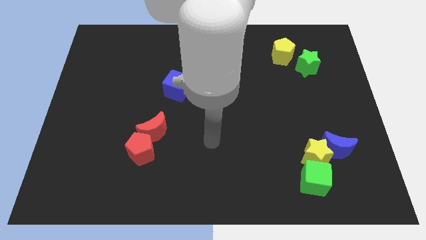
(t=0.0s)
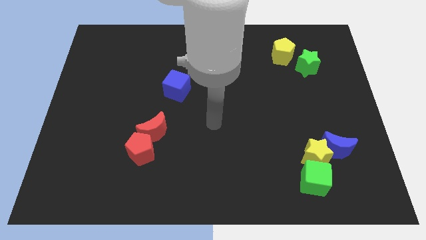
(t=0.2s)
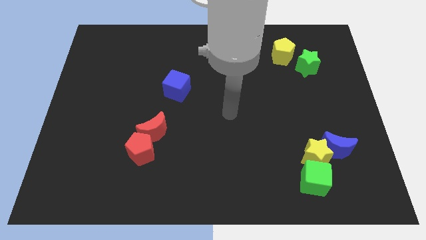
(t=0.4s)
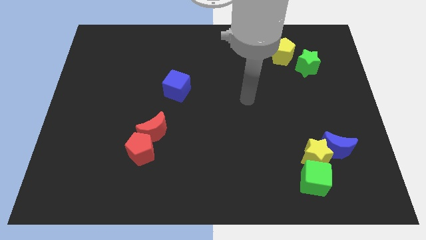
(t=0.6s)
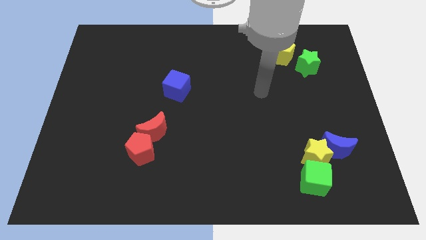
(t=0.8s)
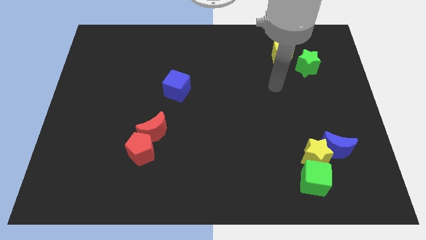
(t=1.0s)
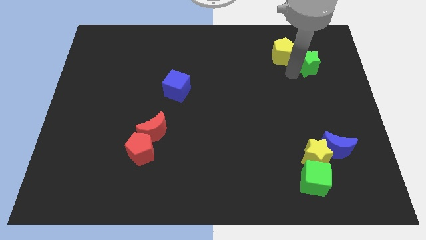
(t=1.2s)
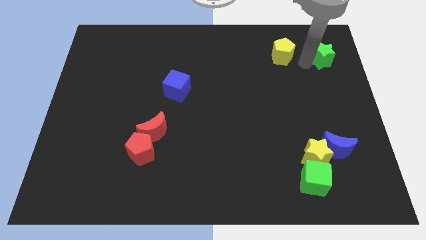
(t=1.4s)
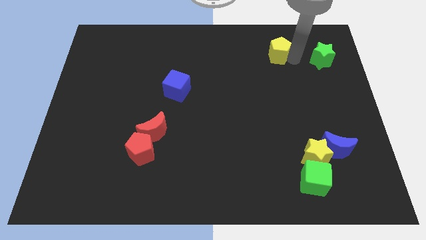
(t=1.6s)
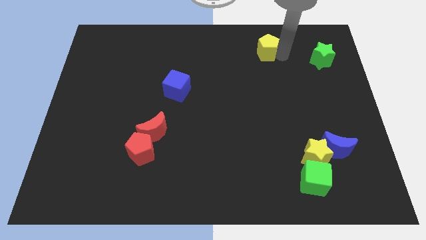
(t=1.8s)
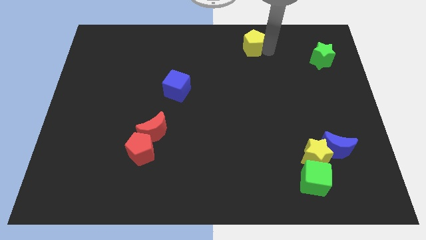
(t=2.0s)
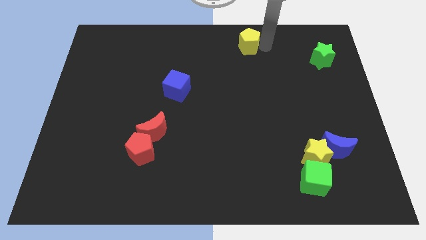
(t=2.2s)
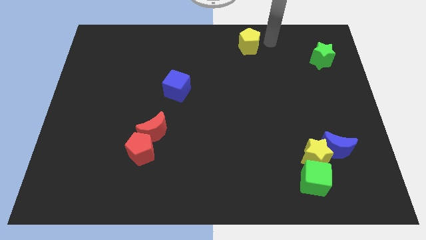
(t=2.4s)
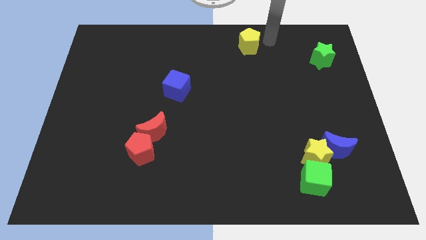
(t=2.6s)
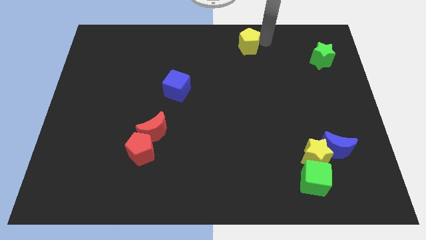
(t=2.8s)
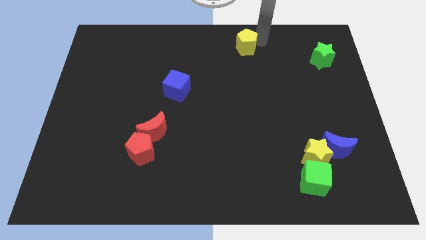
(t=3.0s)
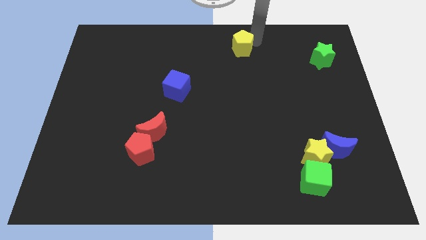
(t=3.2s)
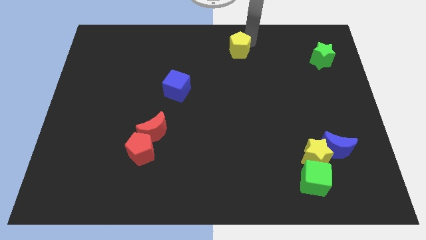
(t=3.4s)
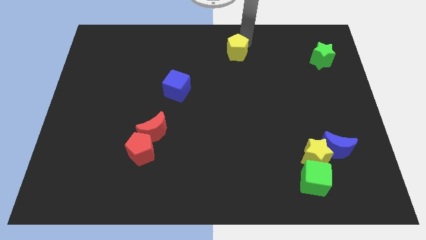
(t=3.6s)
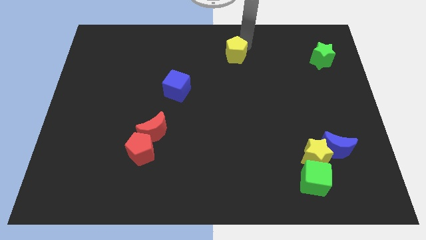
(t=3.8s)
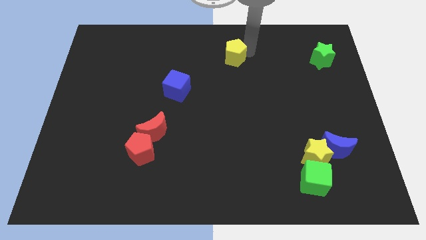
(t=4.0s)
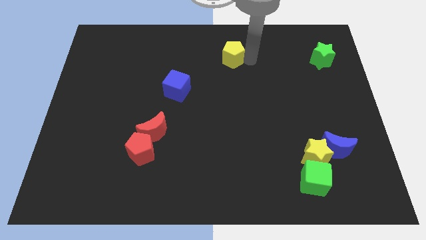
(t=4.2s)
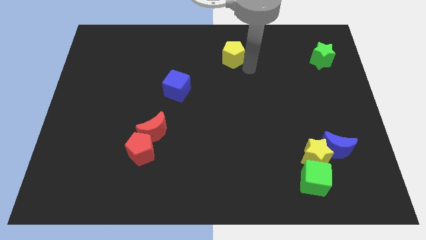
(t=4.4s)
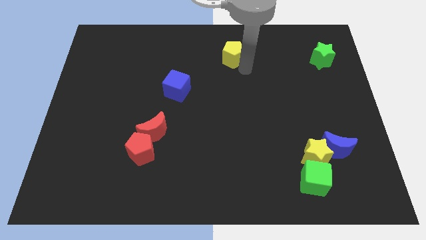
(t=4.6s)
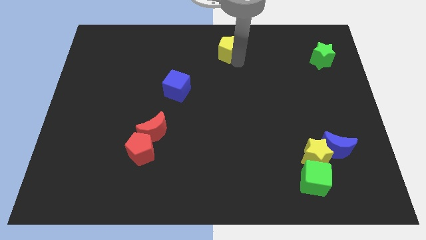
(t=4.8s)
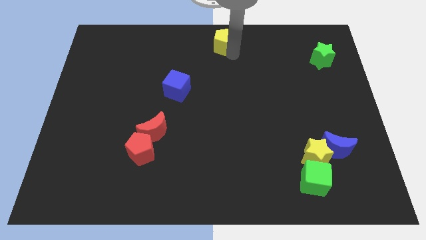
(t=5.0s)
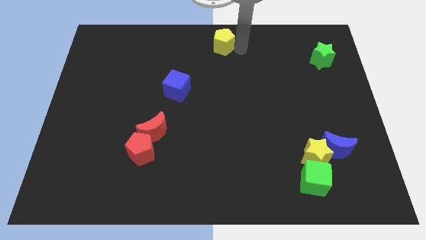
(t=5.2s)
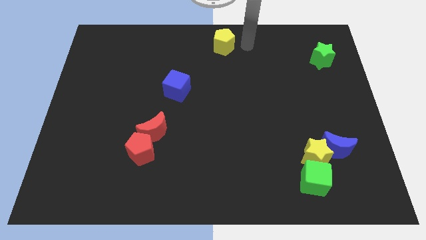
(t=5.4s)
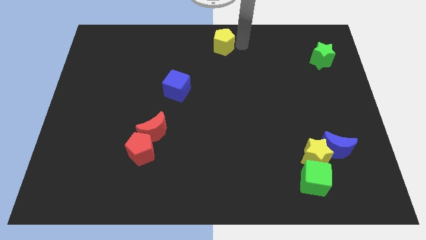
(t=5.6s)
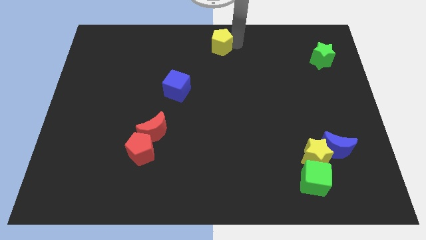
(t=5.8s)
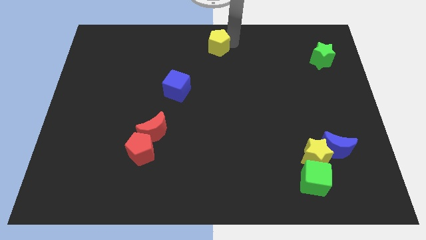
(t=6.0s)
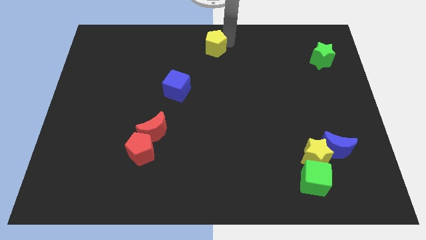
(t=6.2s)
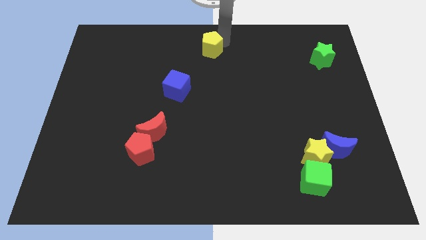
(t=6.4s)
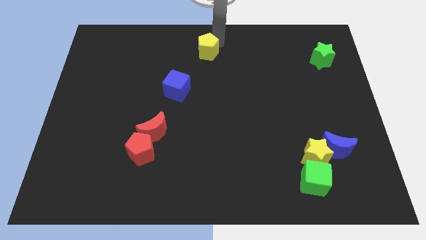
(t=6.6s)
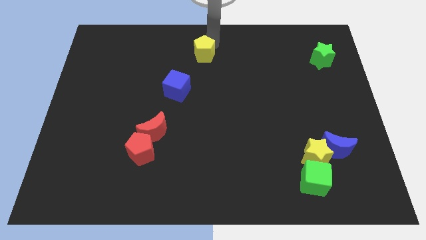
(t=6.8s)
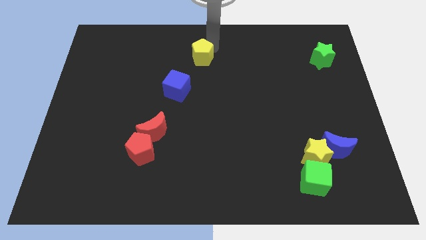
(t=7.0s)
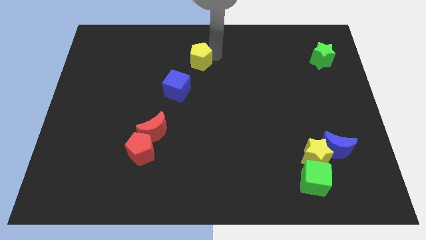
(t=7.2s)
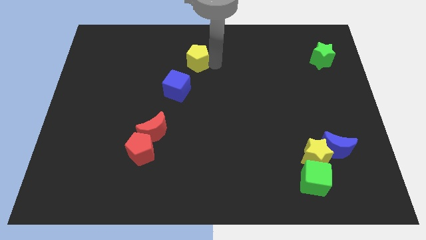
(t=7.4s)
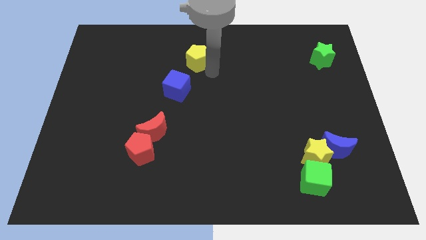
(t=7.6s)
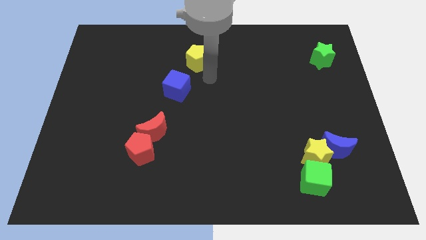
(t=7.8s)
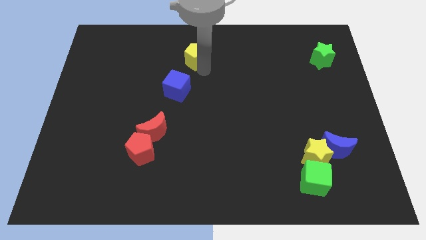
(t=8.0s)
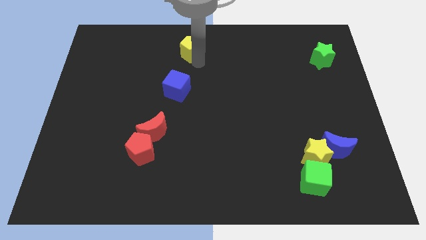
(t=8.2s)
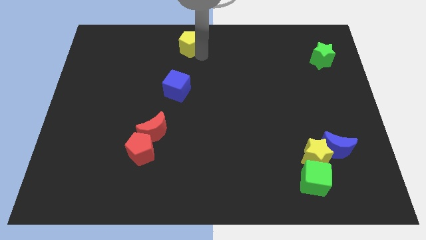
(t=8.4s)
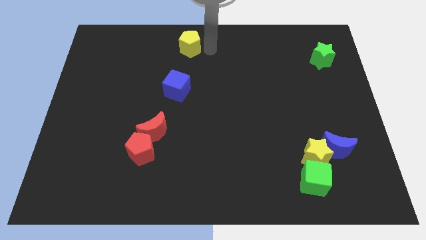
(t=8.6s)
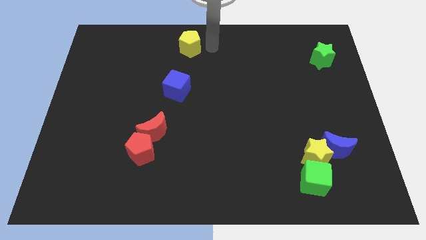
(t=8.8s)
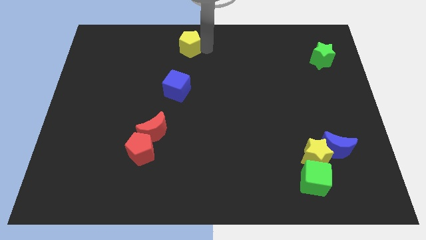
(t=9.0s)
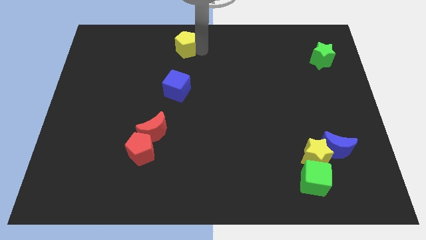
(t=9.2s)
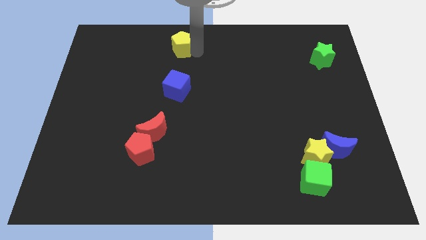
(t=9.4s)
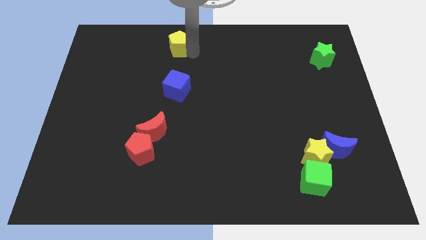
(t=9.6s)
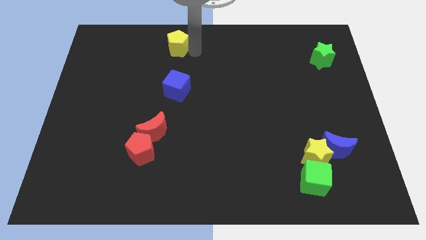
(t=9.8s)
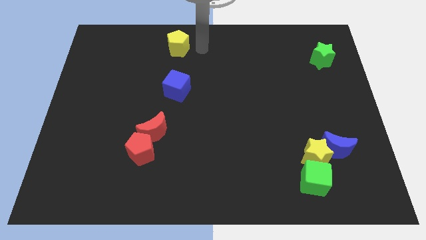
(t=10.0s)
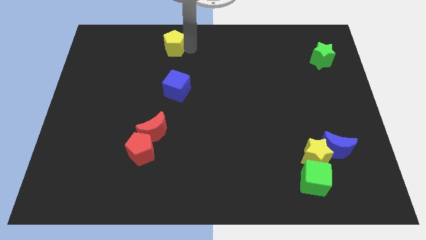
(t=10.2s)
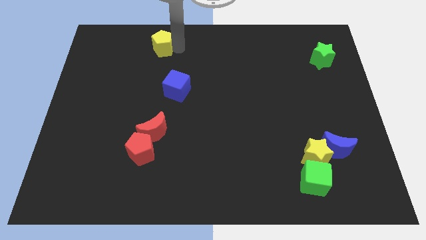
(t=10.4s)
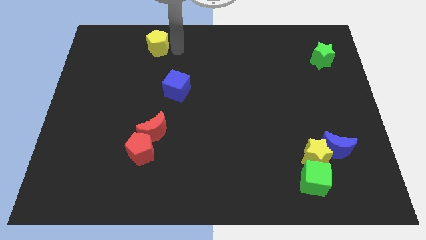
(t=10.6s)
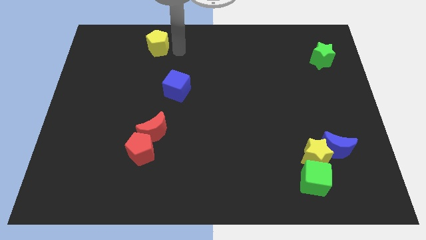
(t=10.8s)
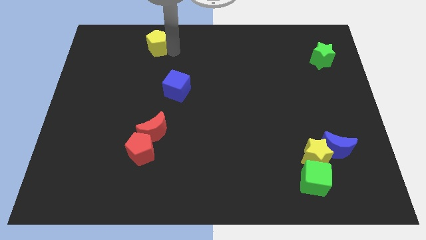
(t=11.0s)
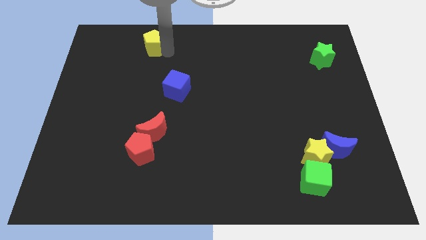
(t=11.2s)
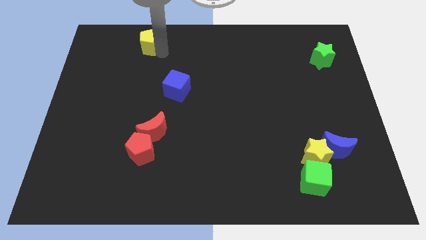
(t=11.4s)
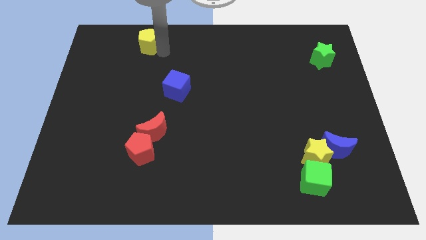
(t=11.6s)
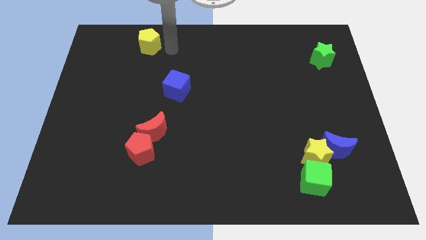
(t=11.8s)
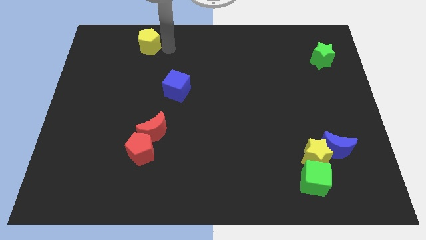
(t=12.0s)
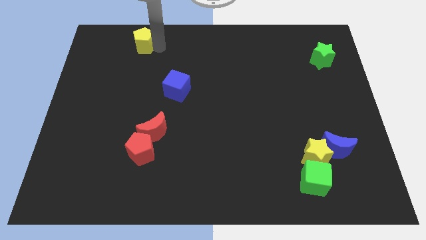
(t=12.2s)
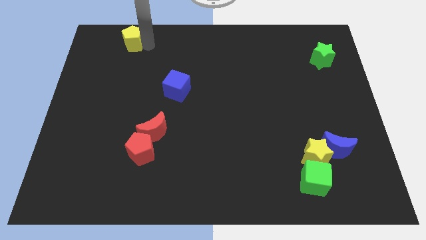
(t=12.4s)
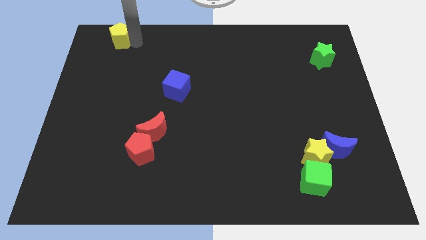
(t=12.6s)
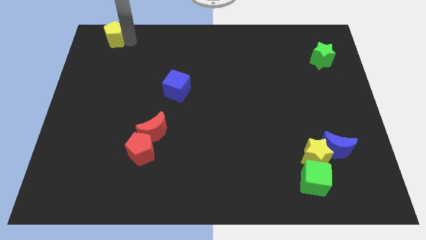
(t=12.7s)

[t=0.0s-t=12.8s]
slide the yellow pentagon to the upper left corner

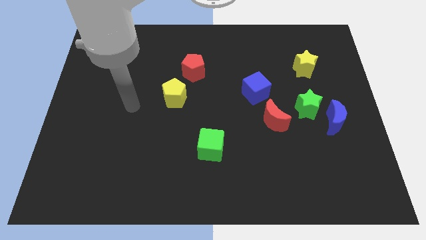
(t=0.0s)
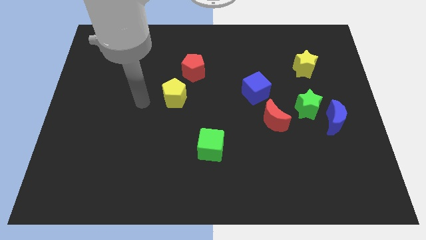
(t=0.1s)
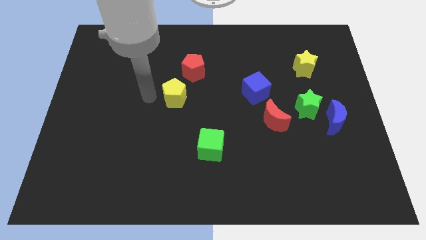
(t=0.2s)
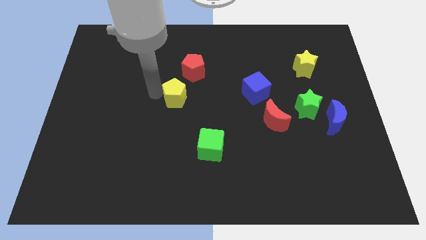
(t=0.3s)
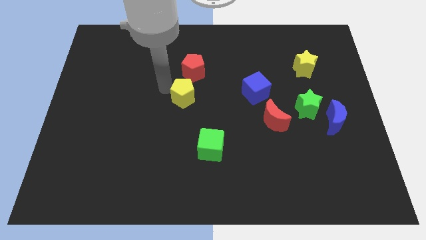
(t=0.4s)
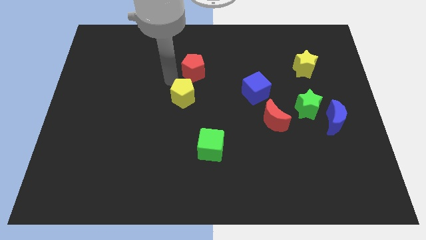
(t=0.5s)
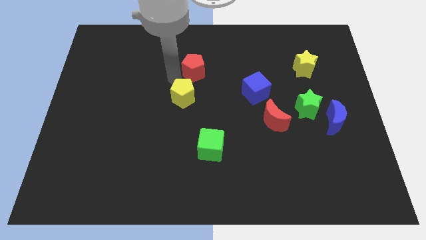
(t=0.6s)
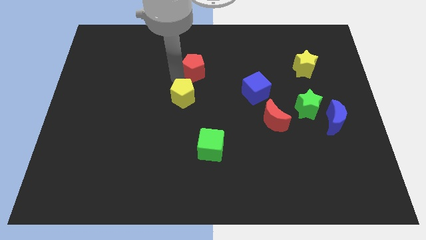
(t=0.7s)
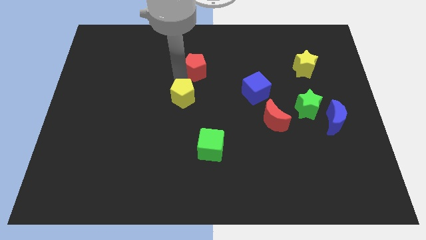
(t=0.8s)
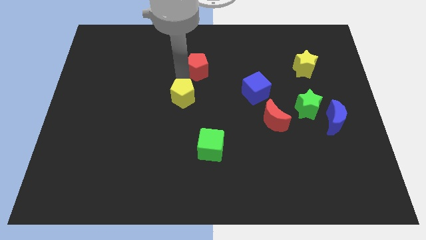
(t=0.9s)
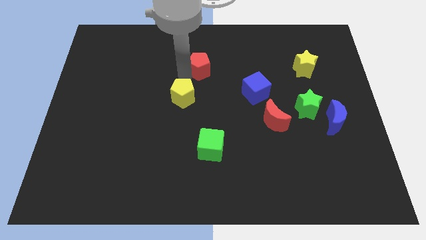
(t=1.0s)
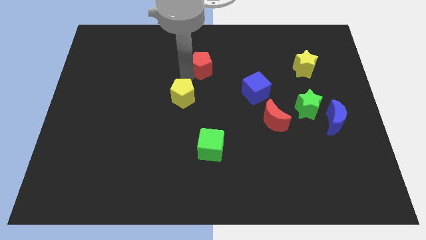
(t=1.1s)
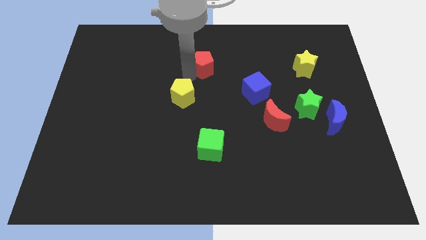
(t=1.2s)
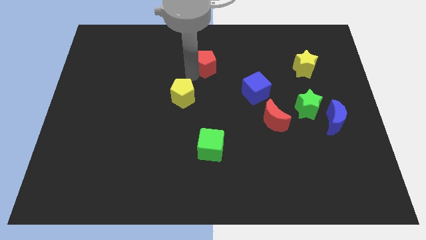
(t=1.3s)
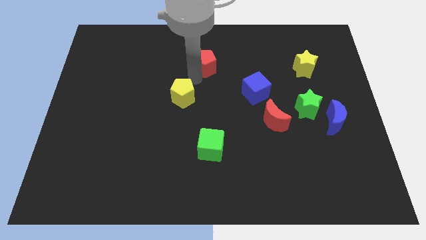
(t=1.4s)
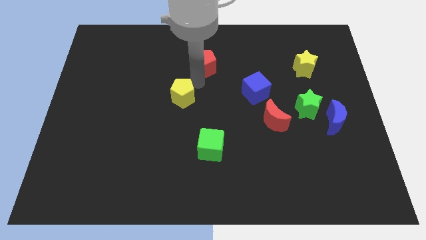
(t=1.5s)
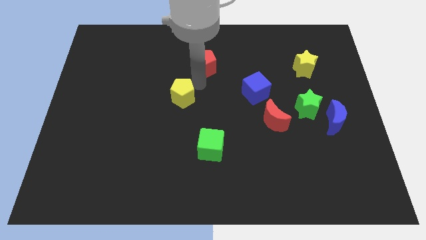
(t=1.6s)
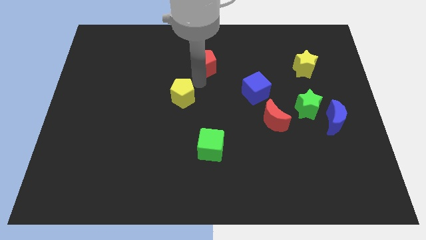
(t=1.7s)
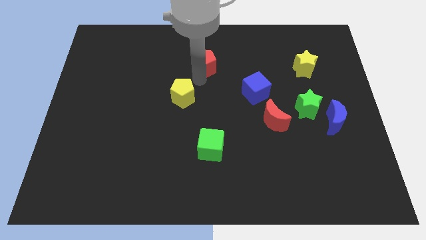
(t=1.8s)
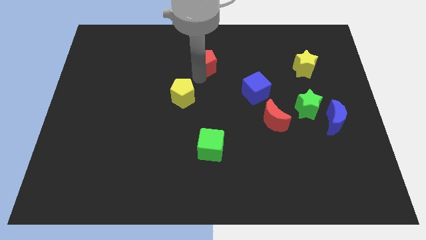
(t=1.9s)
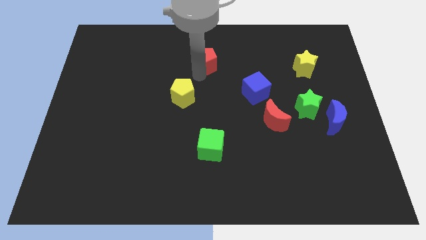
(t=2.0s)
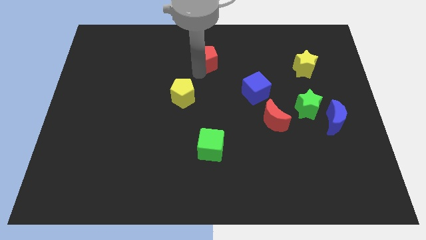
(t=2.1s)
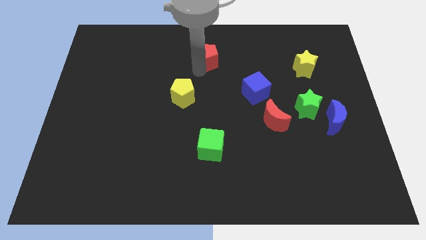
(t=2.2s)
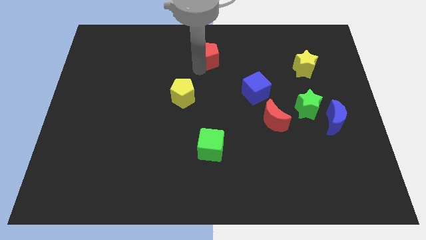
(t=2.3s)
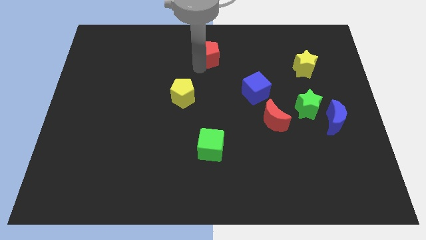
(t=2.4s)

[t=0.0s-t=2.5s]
move the red pentagon to the top side
